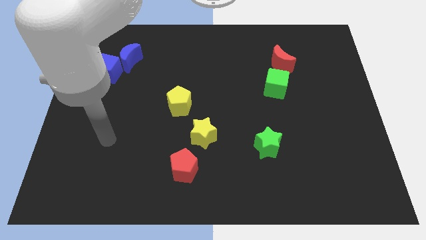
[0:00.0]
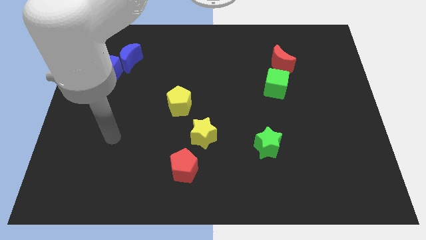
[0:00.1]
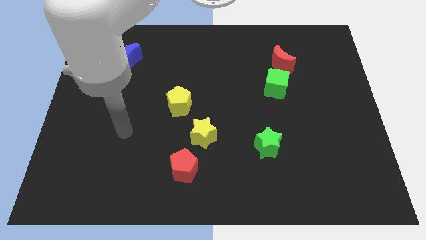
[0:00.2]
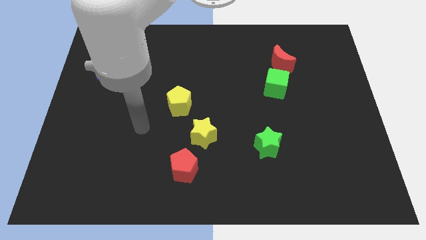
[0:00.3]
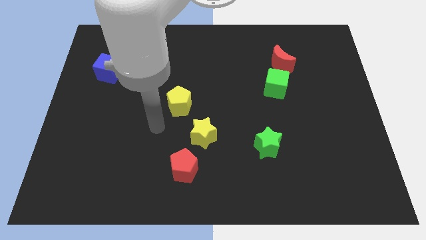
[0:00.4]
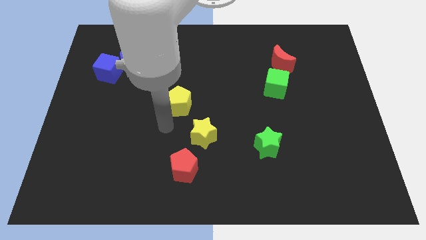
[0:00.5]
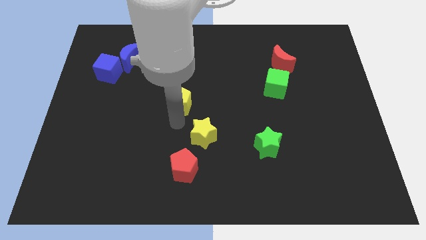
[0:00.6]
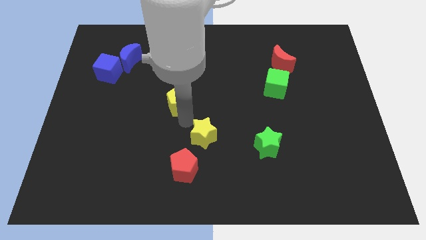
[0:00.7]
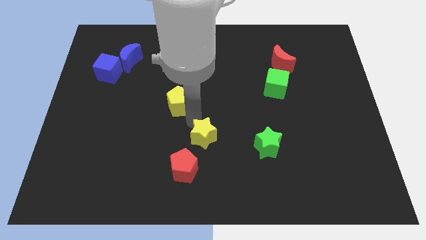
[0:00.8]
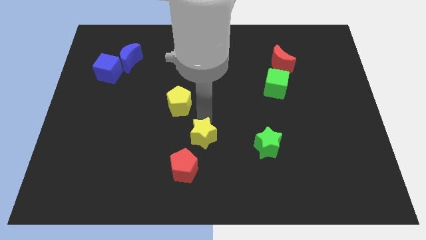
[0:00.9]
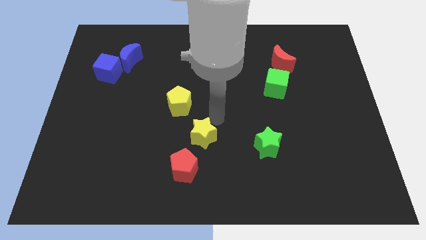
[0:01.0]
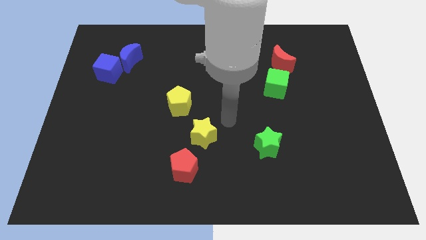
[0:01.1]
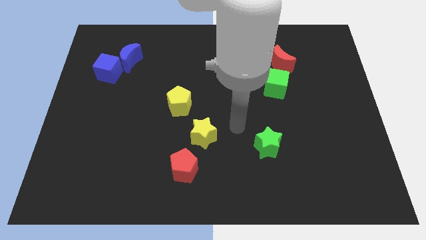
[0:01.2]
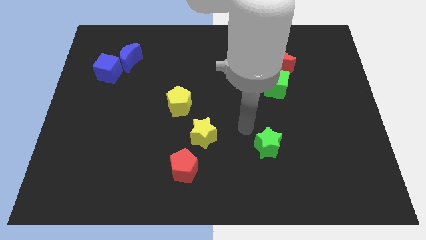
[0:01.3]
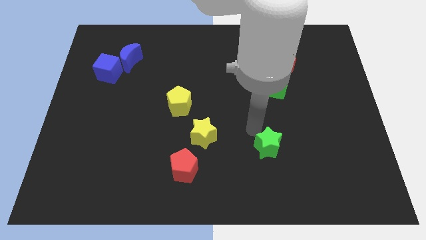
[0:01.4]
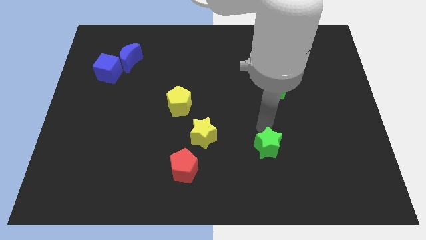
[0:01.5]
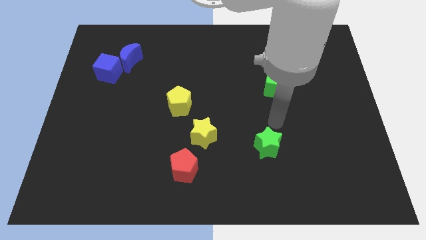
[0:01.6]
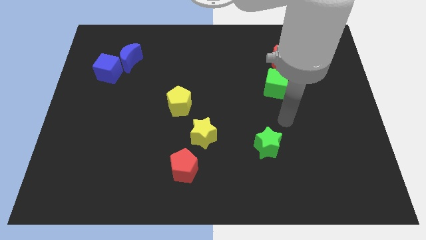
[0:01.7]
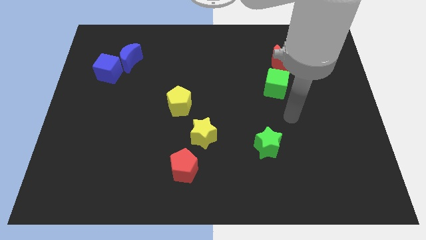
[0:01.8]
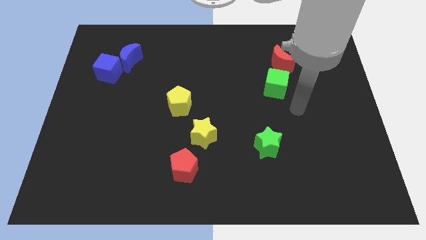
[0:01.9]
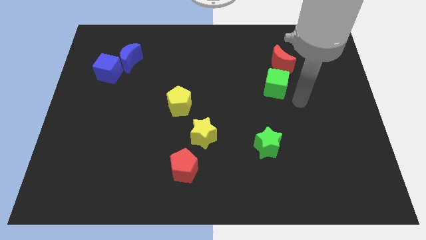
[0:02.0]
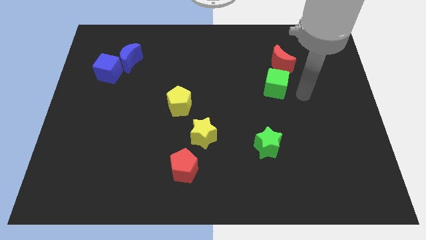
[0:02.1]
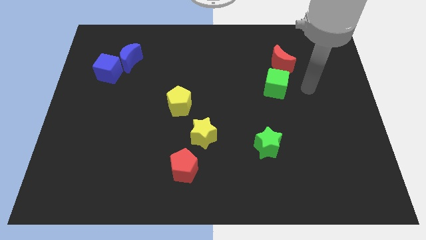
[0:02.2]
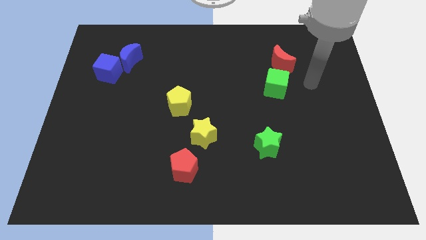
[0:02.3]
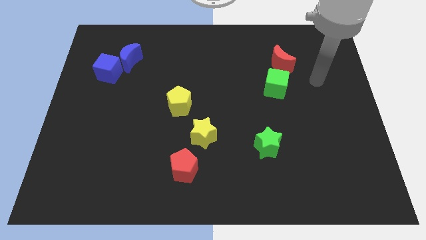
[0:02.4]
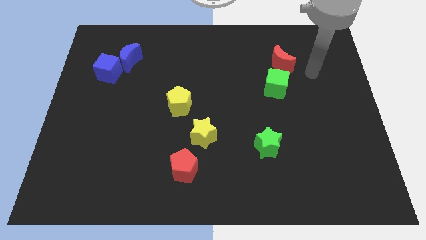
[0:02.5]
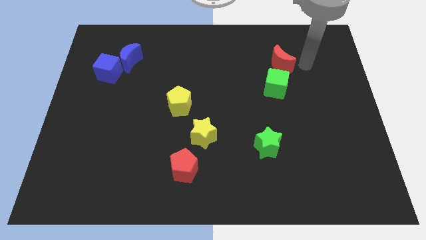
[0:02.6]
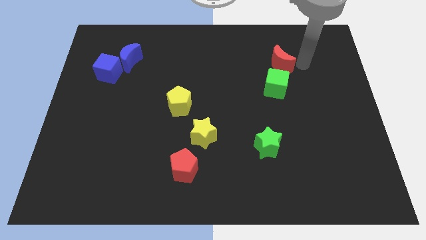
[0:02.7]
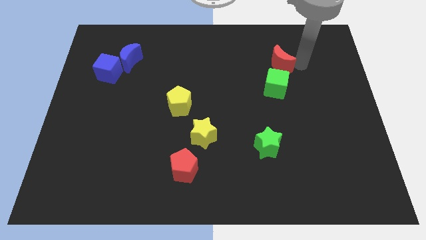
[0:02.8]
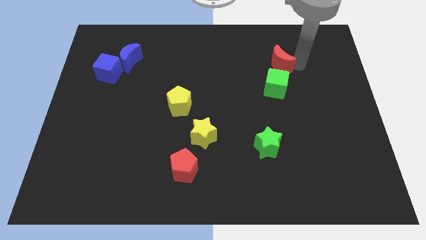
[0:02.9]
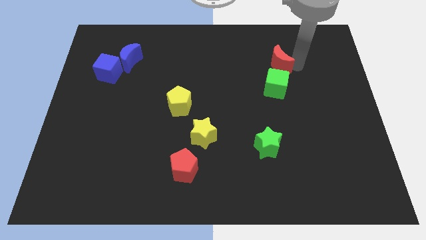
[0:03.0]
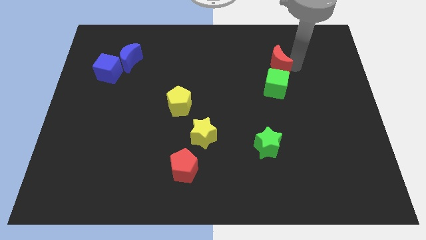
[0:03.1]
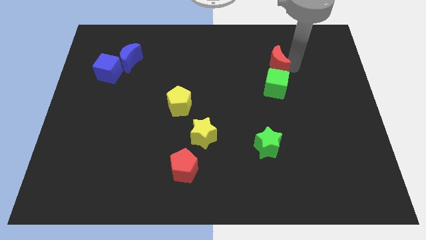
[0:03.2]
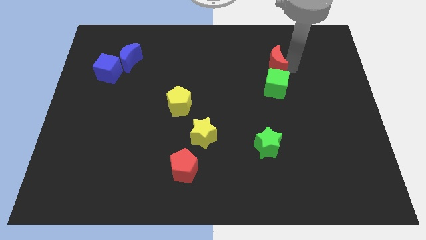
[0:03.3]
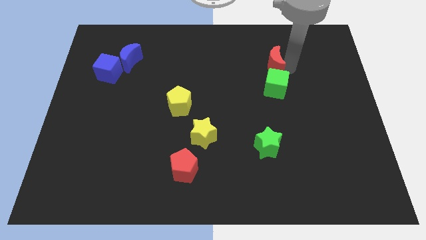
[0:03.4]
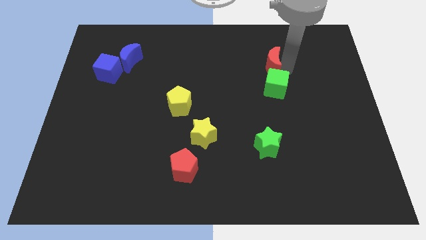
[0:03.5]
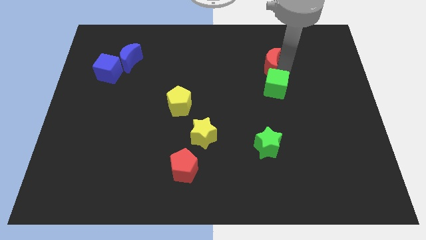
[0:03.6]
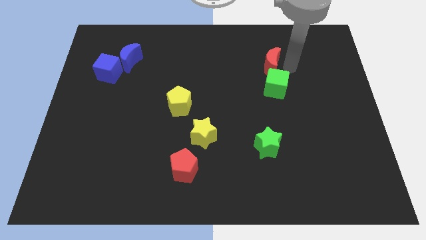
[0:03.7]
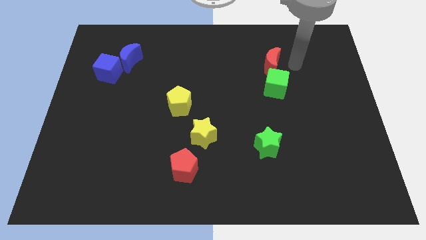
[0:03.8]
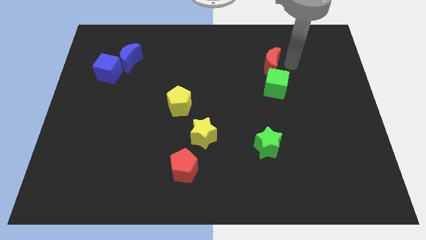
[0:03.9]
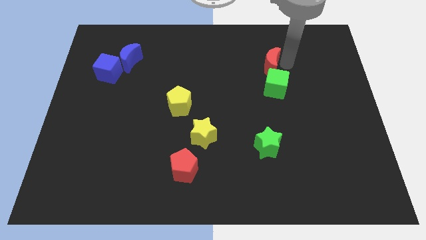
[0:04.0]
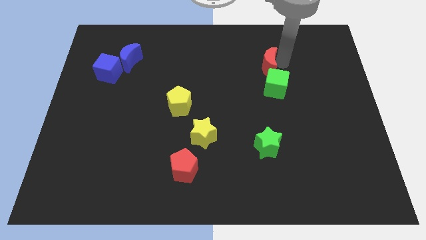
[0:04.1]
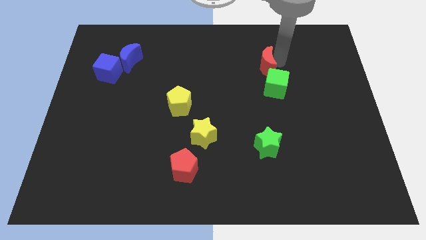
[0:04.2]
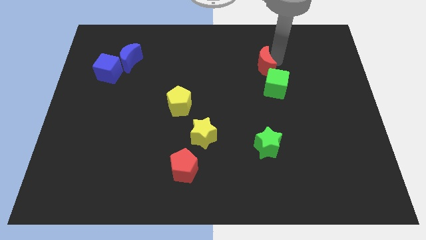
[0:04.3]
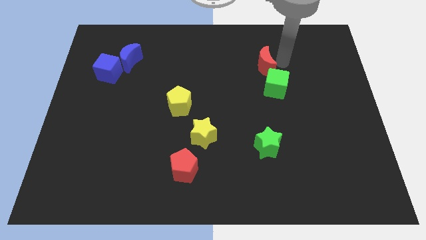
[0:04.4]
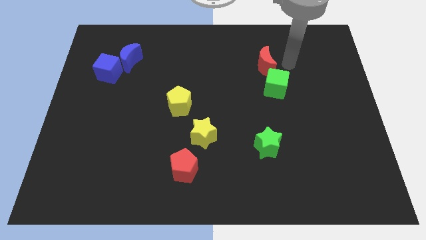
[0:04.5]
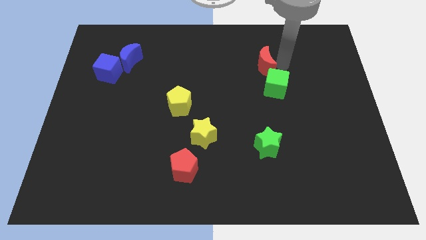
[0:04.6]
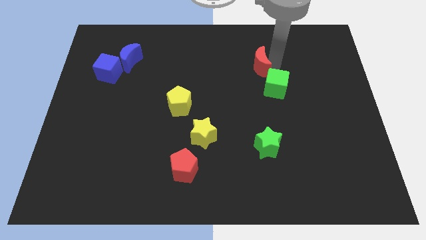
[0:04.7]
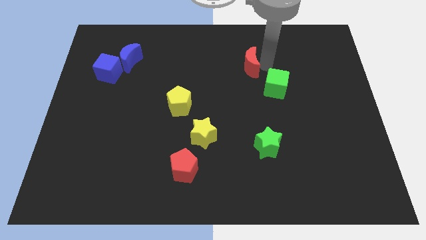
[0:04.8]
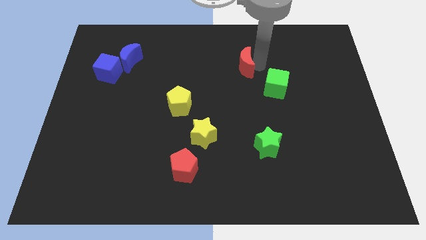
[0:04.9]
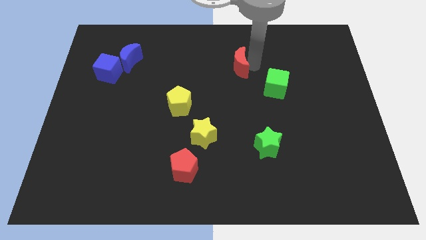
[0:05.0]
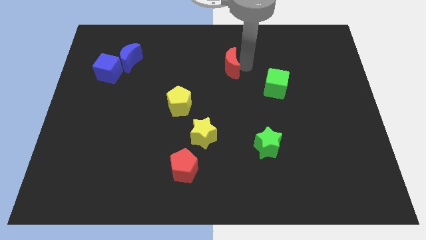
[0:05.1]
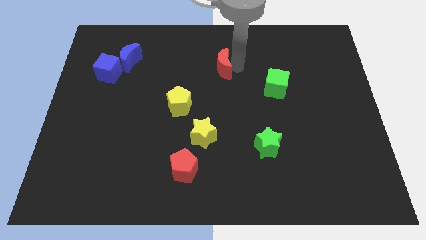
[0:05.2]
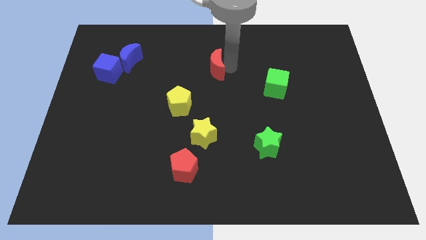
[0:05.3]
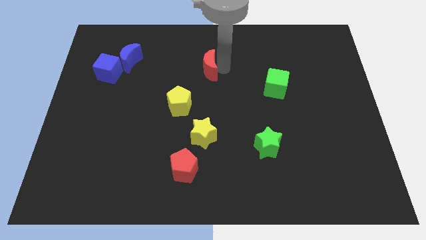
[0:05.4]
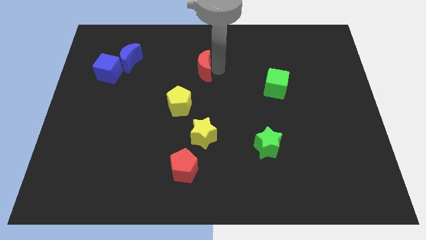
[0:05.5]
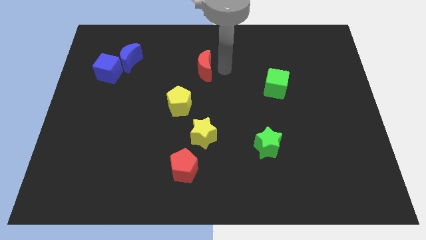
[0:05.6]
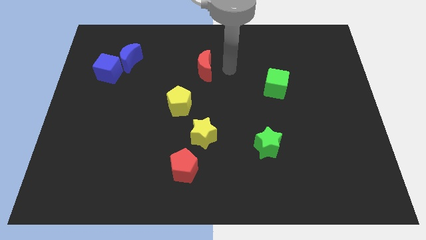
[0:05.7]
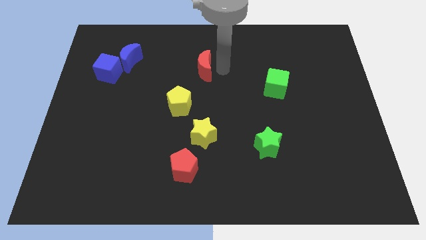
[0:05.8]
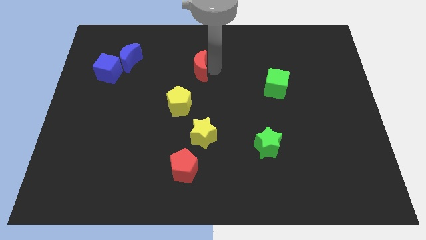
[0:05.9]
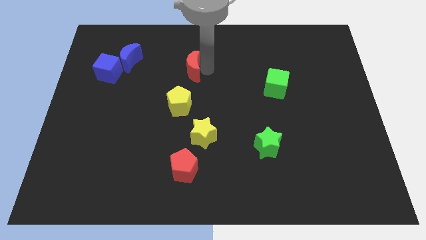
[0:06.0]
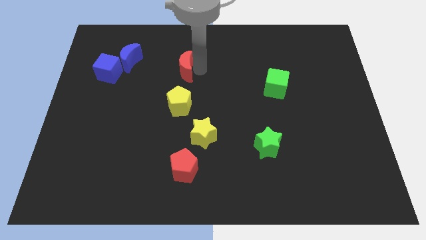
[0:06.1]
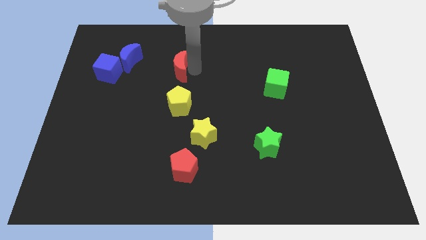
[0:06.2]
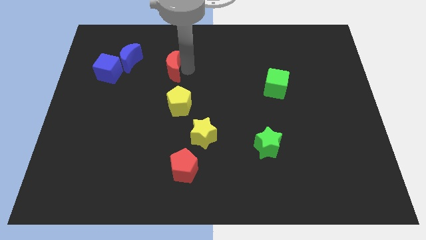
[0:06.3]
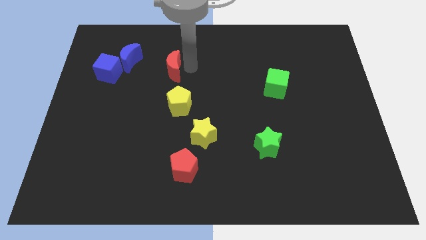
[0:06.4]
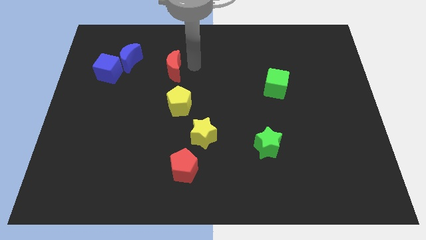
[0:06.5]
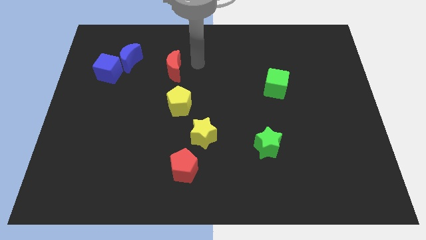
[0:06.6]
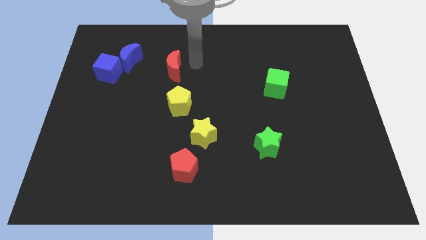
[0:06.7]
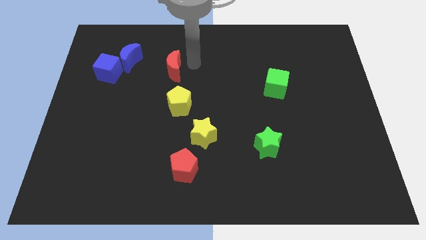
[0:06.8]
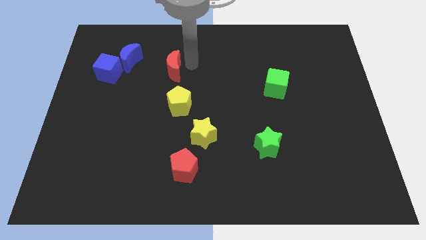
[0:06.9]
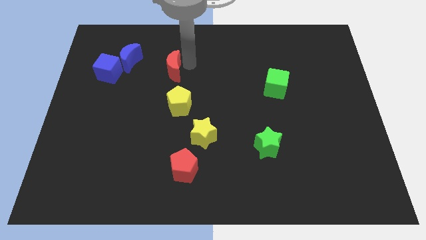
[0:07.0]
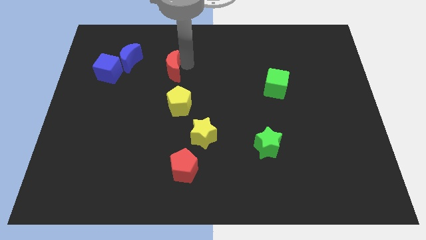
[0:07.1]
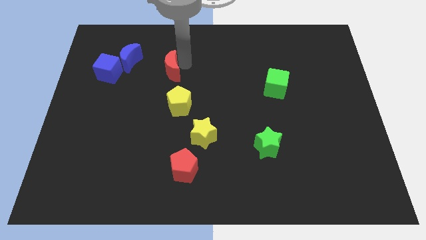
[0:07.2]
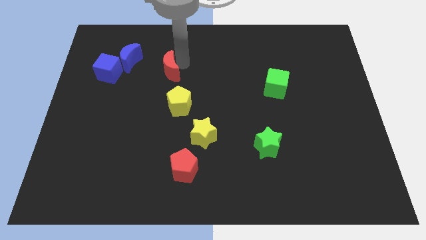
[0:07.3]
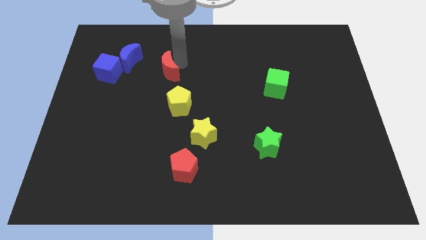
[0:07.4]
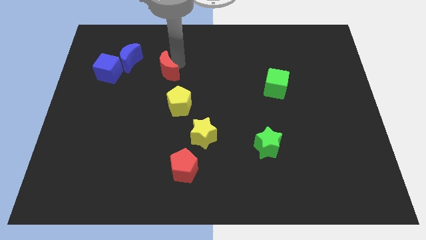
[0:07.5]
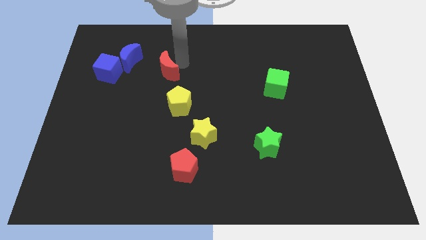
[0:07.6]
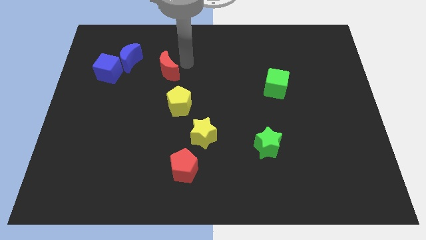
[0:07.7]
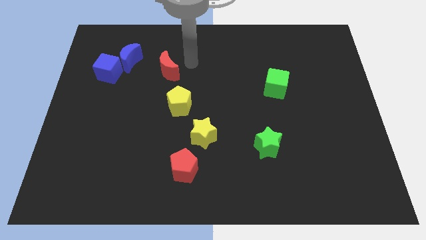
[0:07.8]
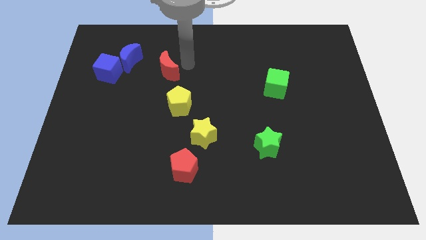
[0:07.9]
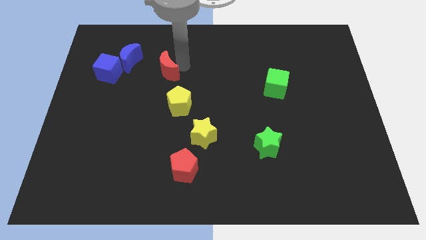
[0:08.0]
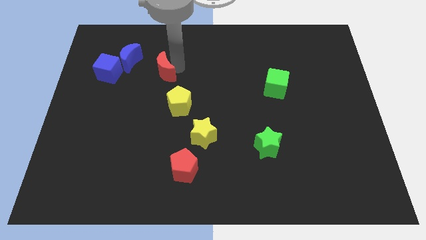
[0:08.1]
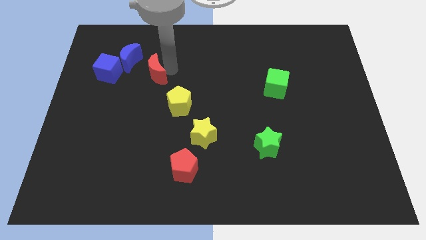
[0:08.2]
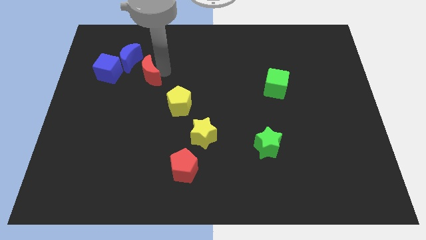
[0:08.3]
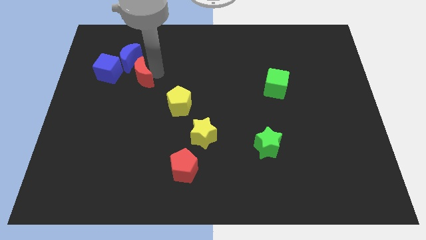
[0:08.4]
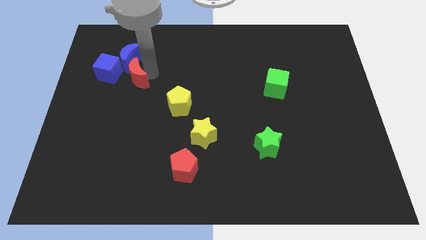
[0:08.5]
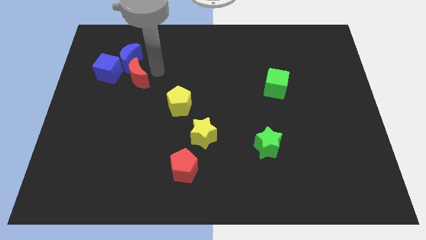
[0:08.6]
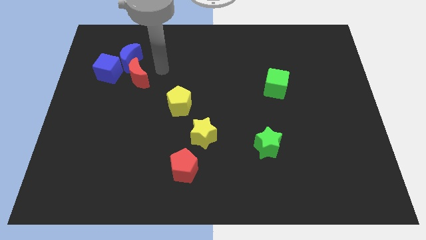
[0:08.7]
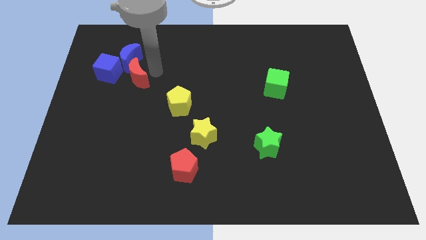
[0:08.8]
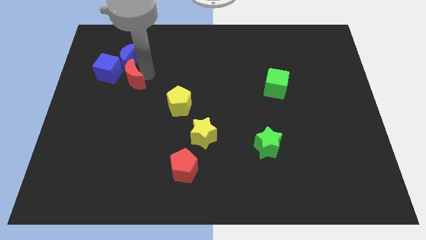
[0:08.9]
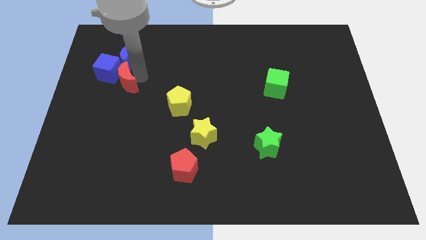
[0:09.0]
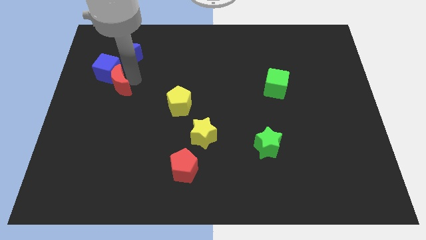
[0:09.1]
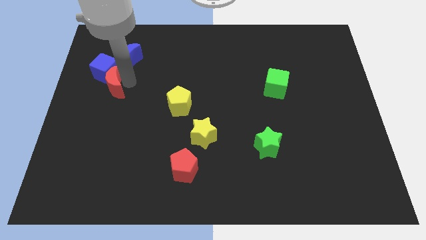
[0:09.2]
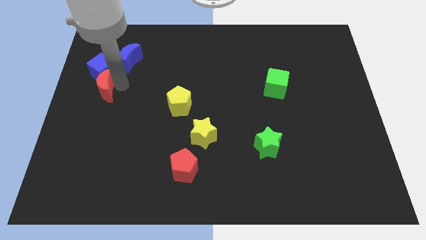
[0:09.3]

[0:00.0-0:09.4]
slide the red moon to the center left
